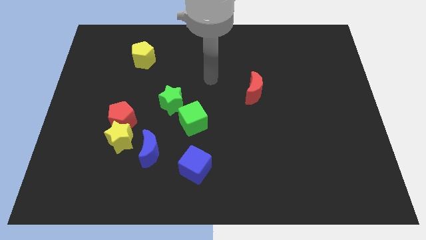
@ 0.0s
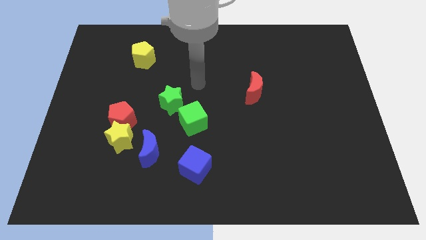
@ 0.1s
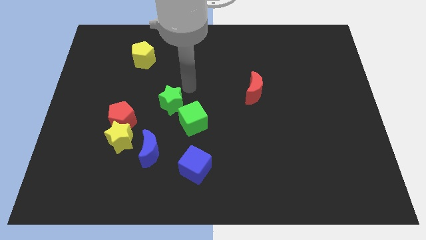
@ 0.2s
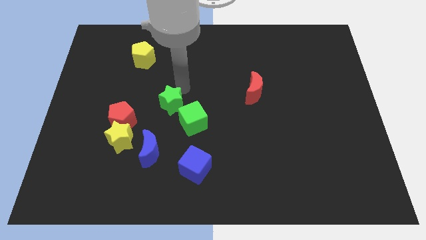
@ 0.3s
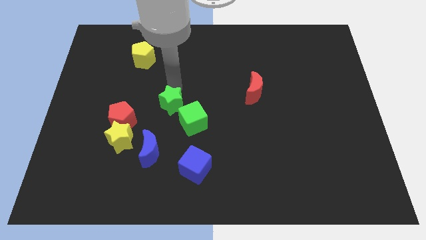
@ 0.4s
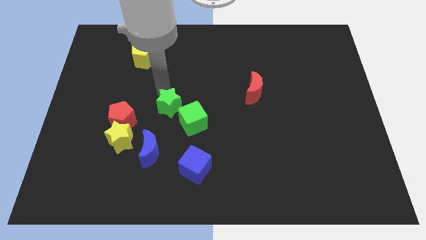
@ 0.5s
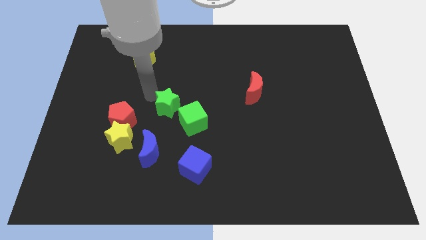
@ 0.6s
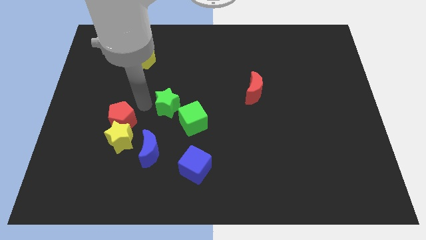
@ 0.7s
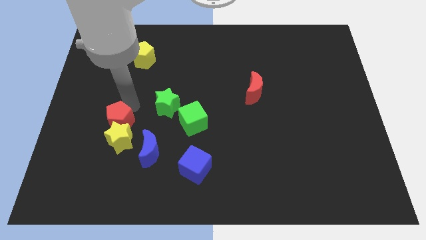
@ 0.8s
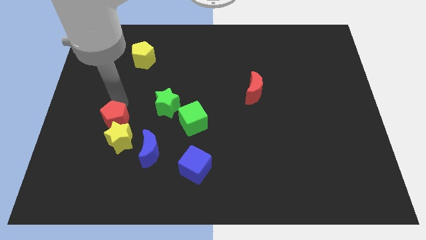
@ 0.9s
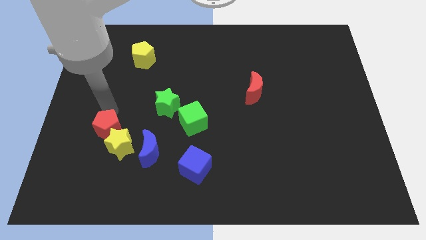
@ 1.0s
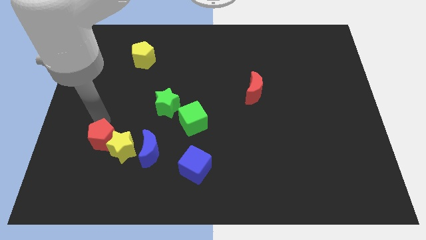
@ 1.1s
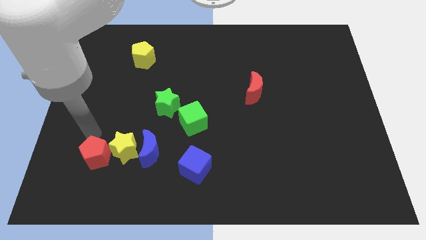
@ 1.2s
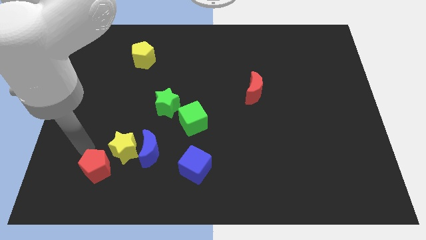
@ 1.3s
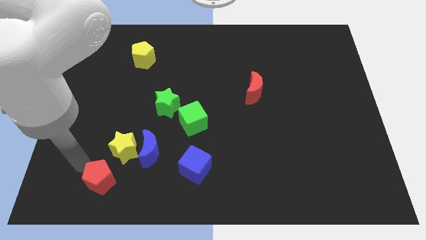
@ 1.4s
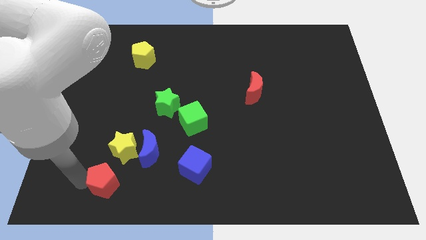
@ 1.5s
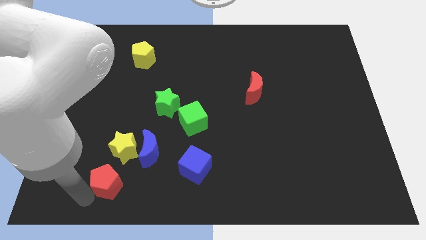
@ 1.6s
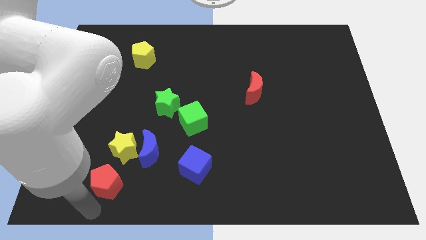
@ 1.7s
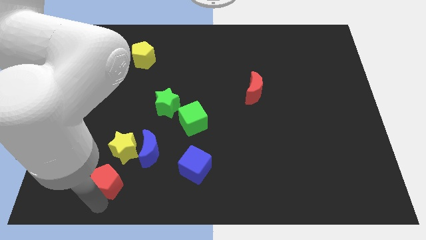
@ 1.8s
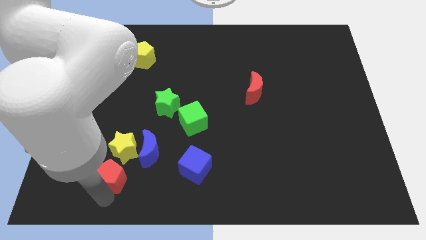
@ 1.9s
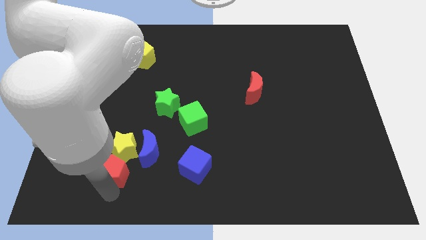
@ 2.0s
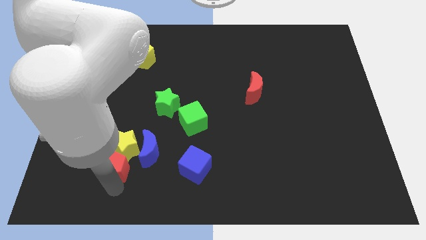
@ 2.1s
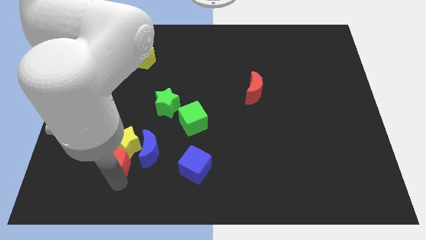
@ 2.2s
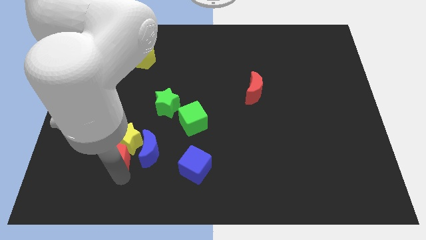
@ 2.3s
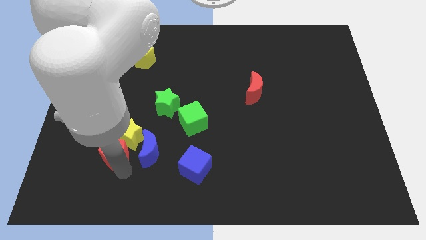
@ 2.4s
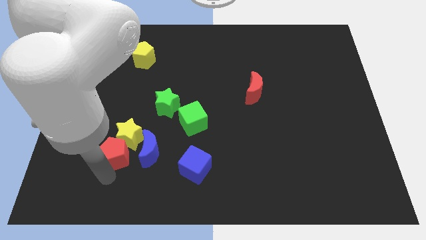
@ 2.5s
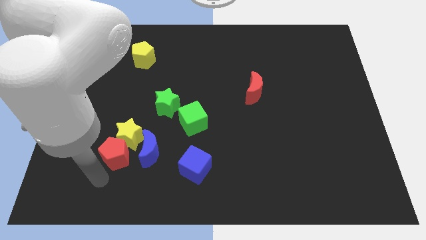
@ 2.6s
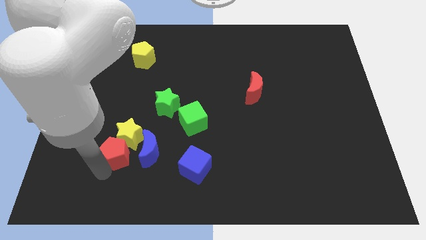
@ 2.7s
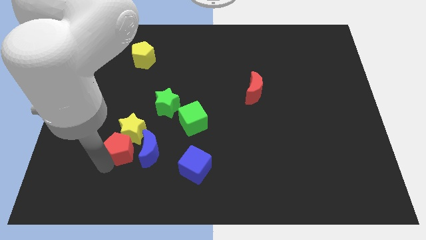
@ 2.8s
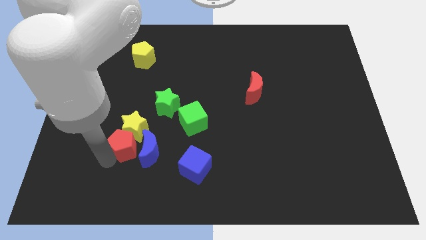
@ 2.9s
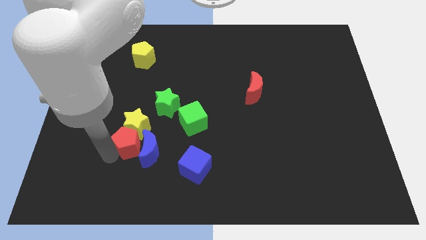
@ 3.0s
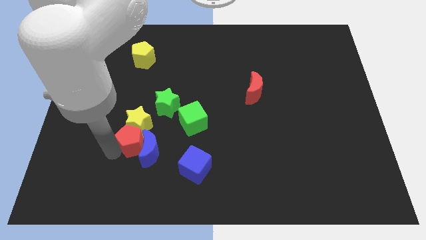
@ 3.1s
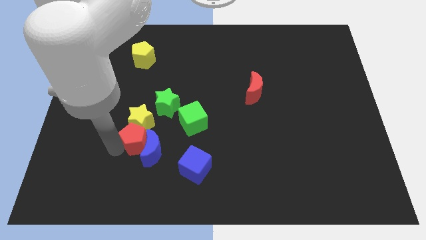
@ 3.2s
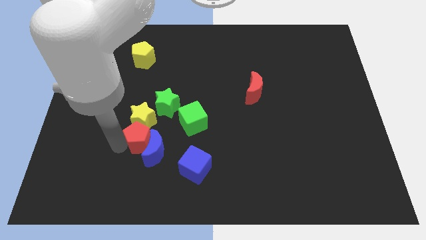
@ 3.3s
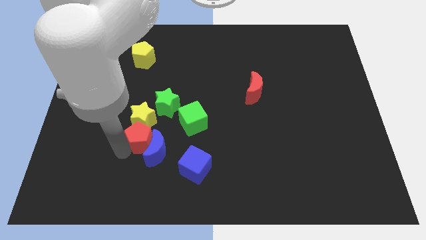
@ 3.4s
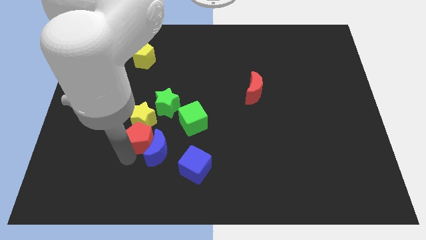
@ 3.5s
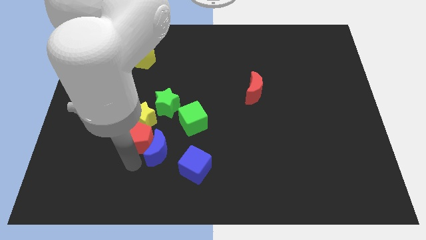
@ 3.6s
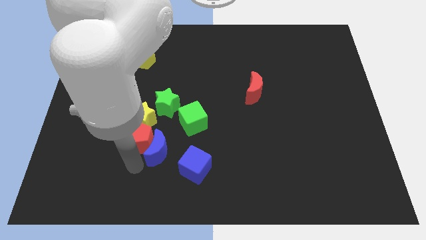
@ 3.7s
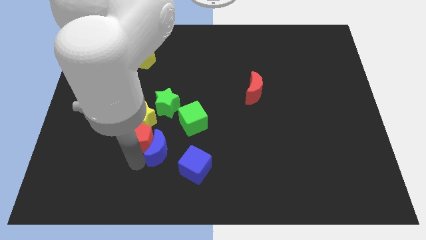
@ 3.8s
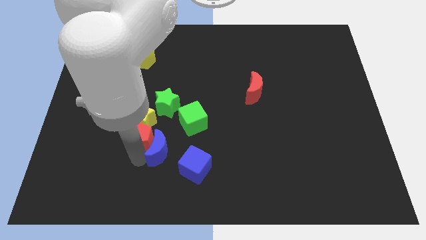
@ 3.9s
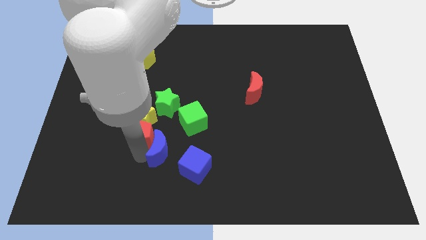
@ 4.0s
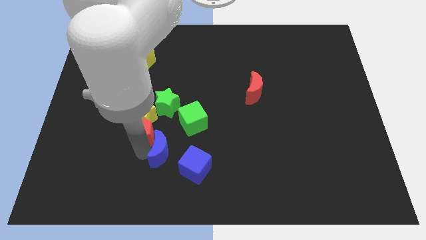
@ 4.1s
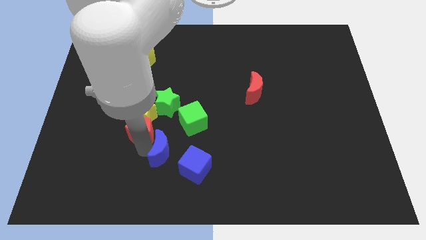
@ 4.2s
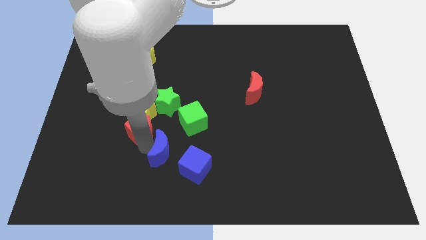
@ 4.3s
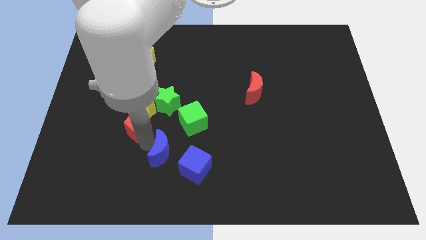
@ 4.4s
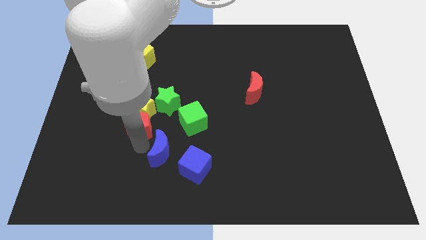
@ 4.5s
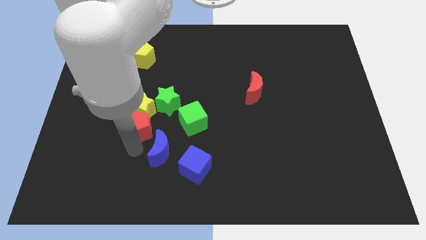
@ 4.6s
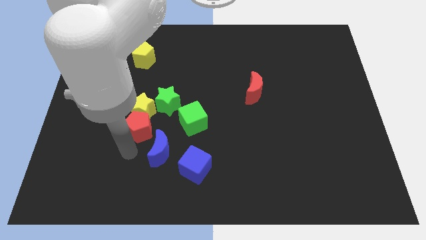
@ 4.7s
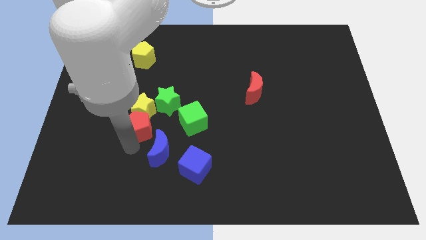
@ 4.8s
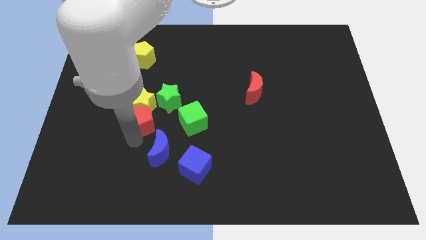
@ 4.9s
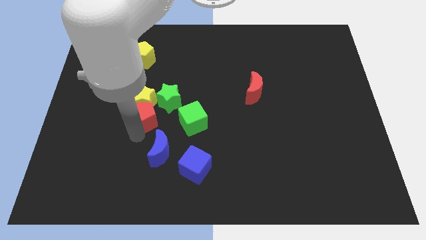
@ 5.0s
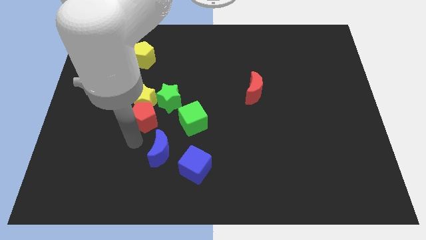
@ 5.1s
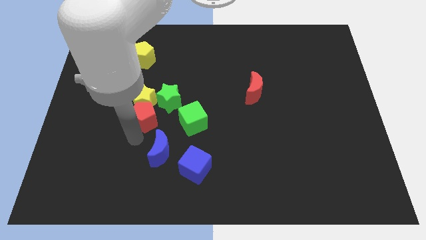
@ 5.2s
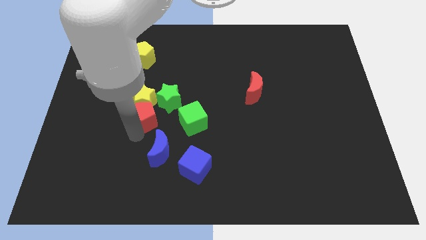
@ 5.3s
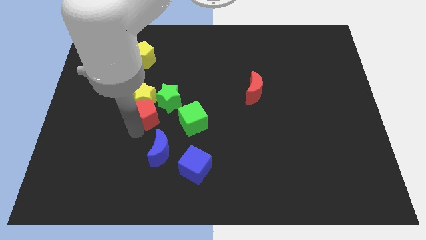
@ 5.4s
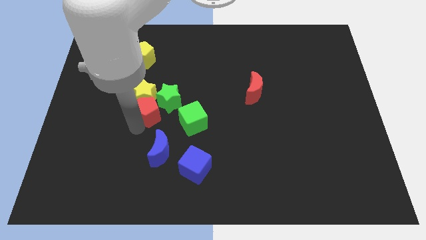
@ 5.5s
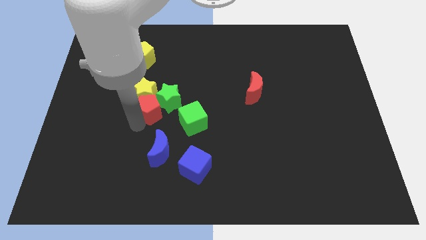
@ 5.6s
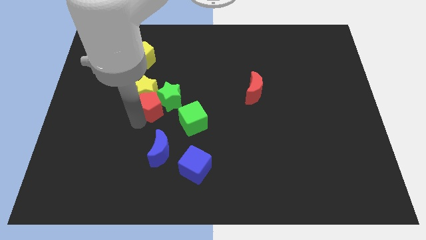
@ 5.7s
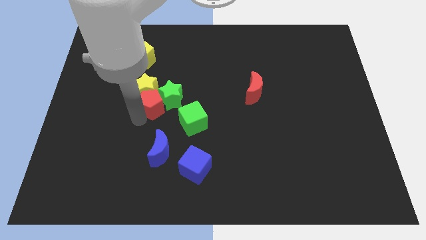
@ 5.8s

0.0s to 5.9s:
push the red pentagon a bit diagonally upwards and to the right

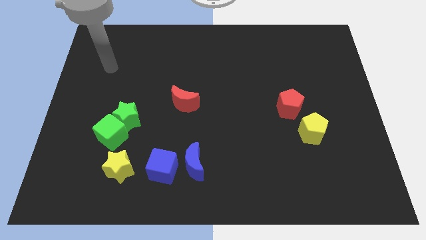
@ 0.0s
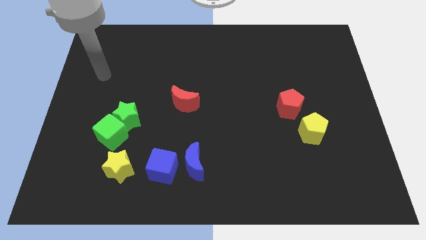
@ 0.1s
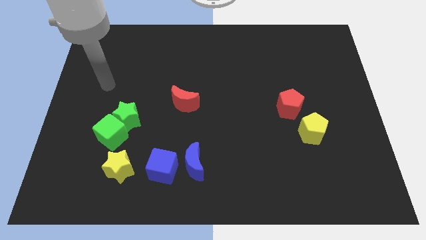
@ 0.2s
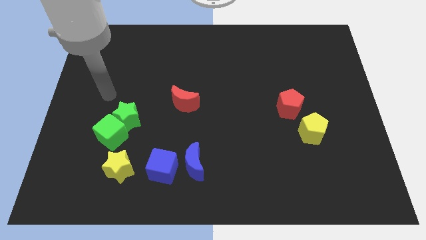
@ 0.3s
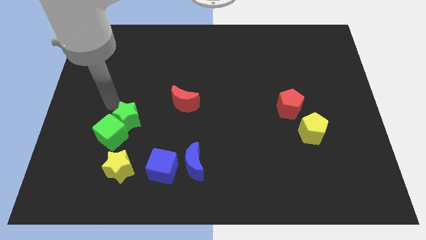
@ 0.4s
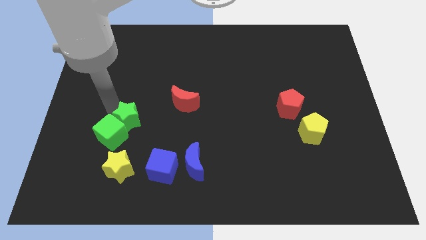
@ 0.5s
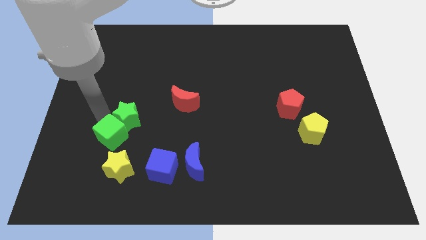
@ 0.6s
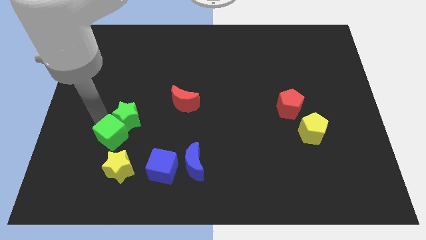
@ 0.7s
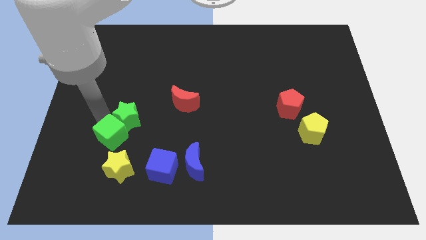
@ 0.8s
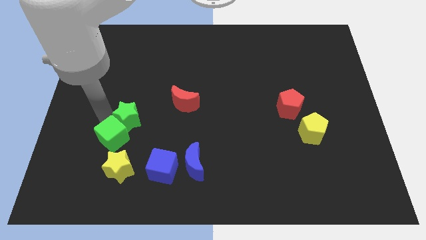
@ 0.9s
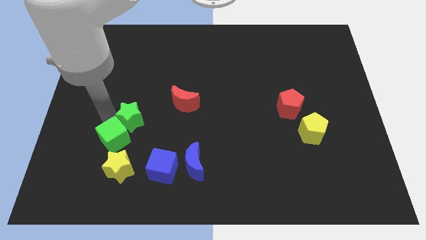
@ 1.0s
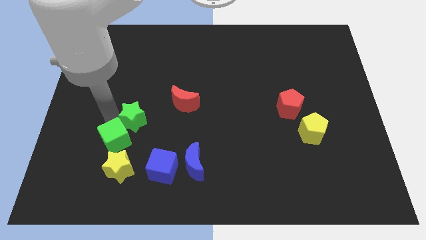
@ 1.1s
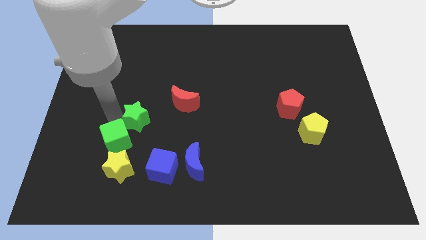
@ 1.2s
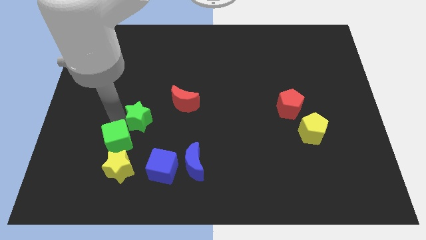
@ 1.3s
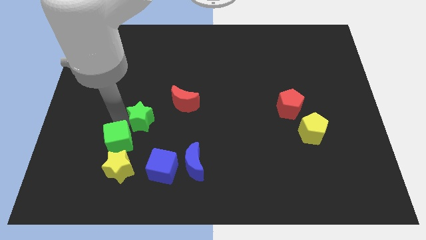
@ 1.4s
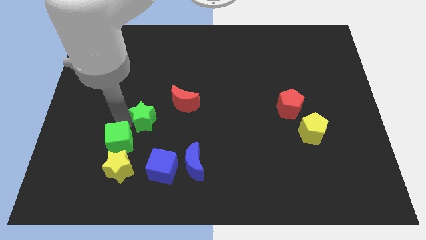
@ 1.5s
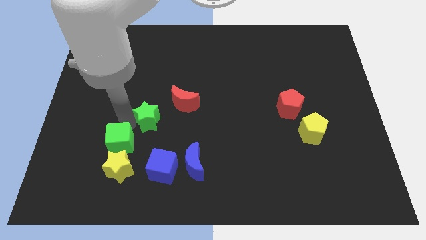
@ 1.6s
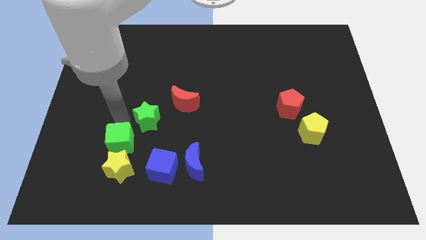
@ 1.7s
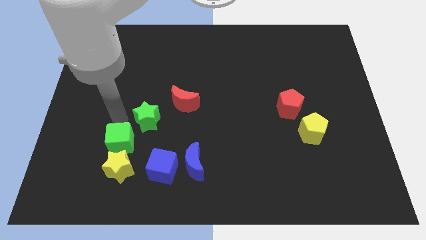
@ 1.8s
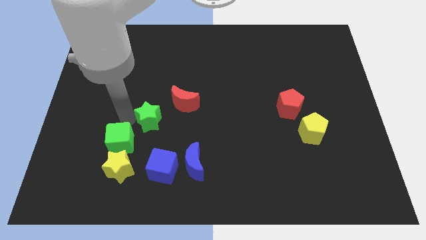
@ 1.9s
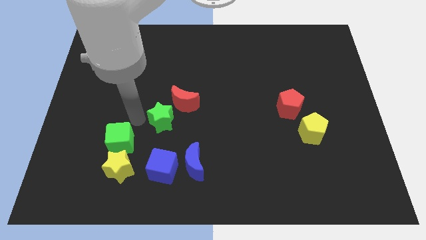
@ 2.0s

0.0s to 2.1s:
slightly push the green star right

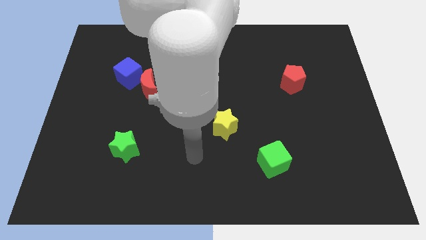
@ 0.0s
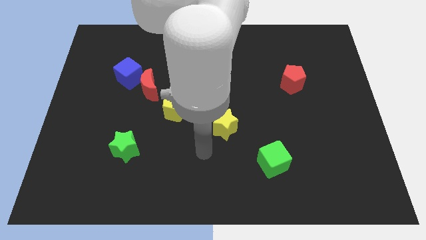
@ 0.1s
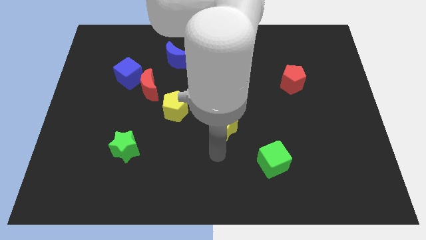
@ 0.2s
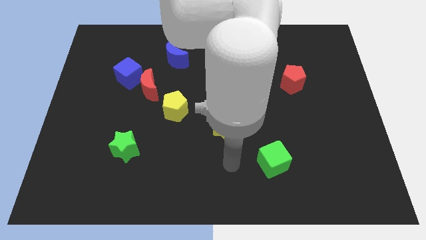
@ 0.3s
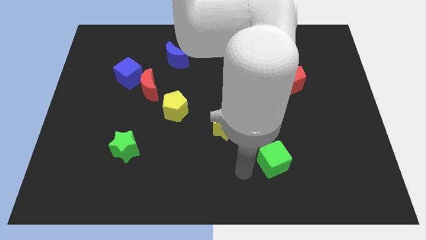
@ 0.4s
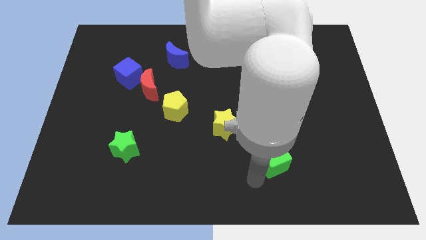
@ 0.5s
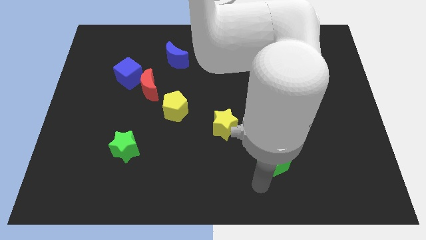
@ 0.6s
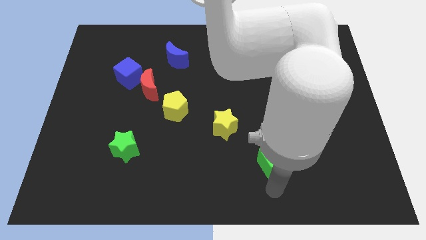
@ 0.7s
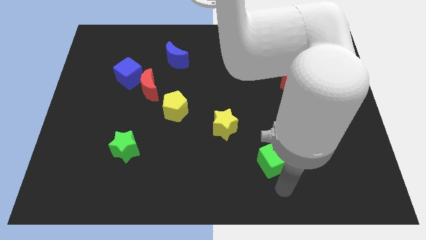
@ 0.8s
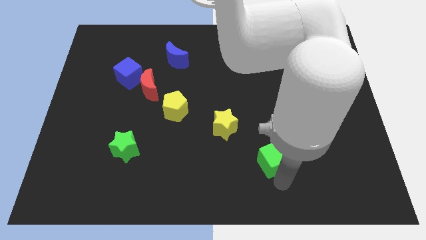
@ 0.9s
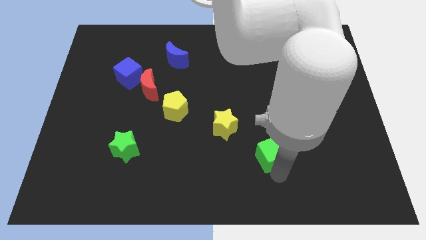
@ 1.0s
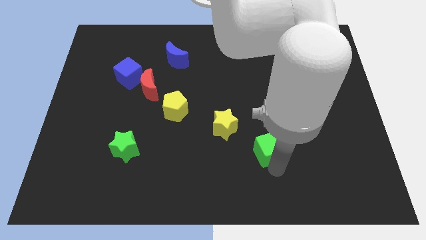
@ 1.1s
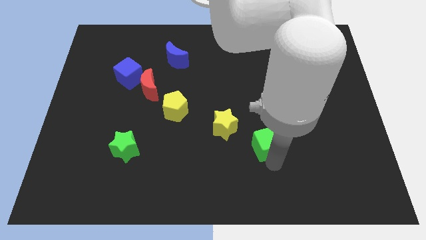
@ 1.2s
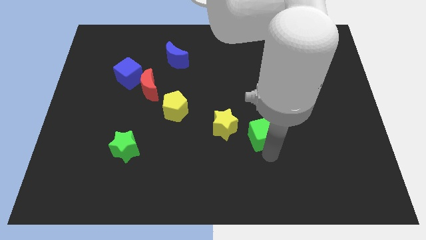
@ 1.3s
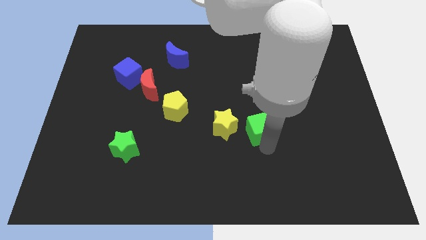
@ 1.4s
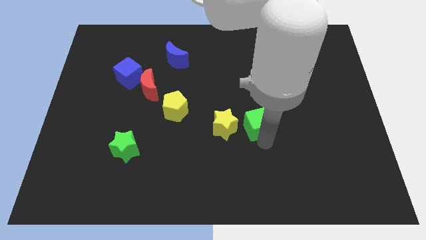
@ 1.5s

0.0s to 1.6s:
push the green cube diagonally up and left a little bit
